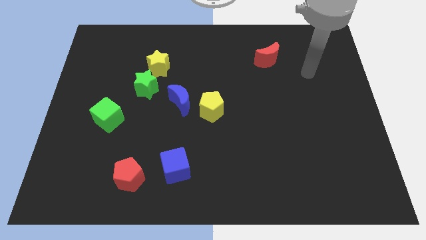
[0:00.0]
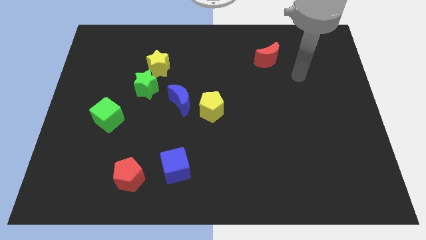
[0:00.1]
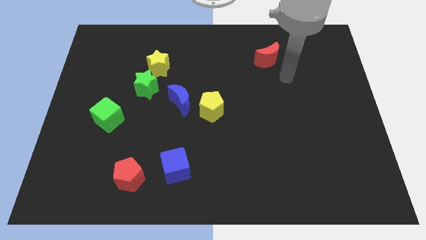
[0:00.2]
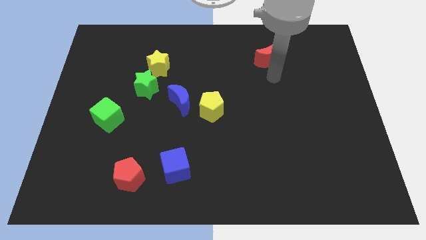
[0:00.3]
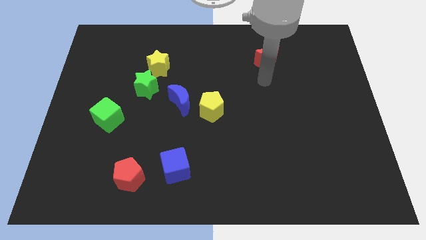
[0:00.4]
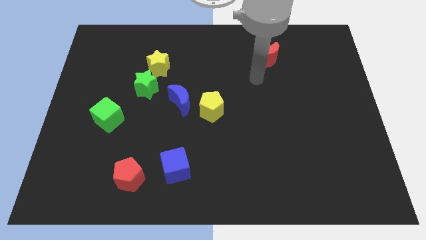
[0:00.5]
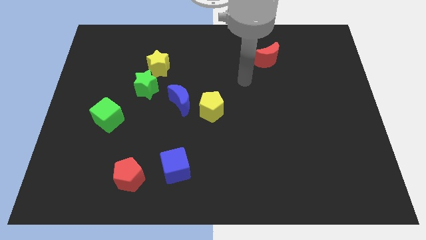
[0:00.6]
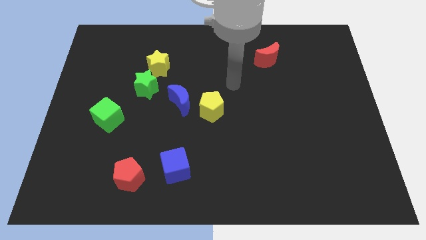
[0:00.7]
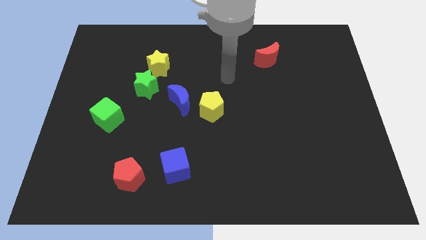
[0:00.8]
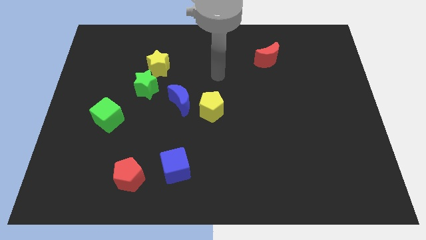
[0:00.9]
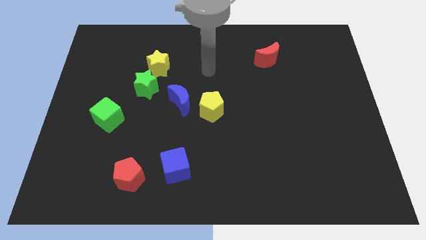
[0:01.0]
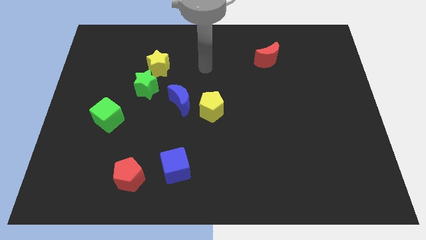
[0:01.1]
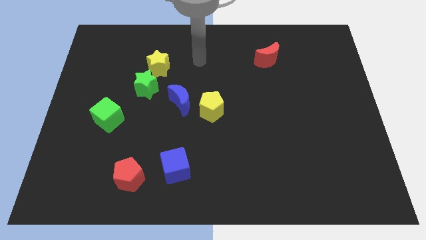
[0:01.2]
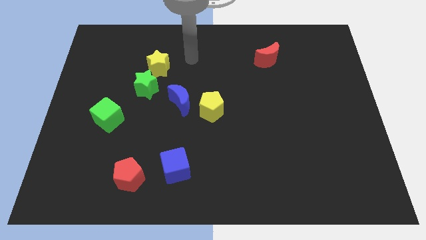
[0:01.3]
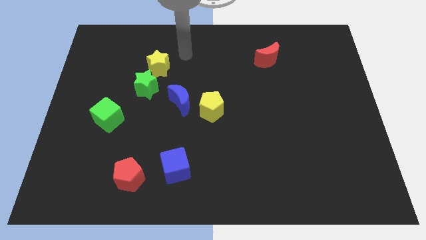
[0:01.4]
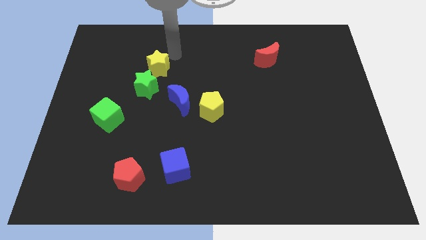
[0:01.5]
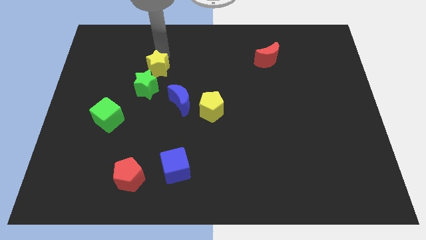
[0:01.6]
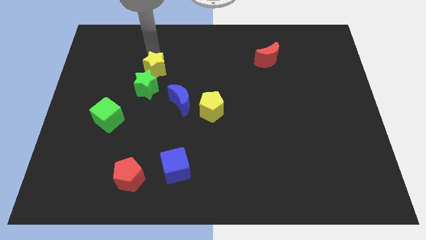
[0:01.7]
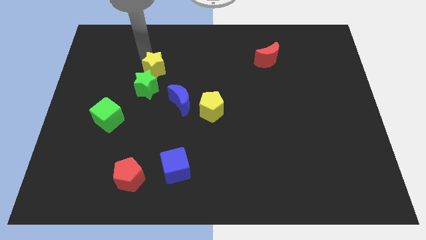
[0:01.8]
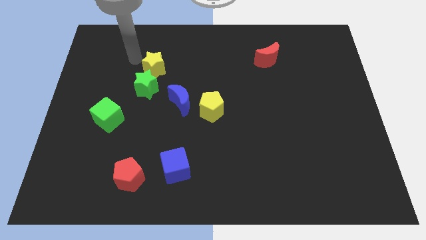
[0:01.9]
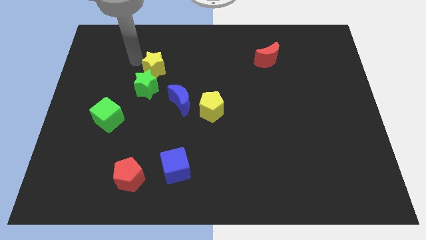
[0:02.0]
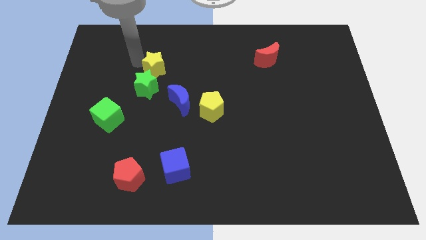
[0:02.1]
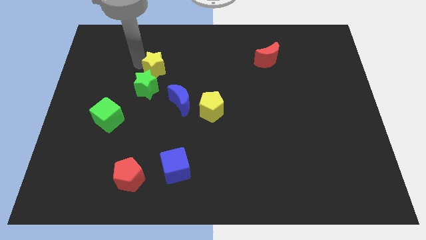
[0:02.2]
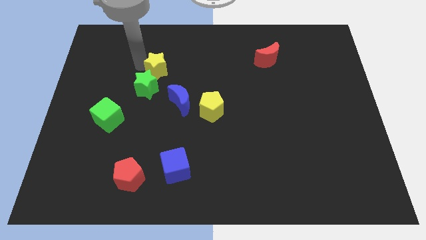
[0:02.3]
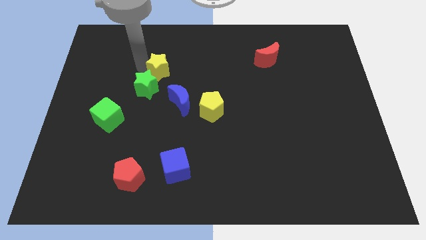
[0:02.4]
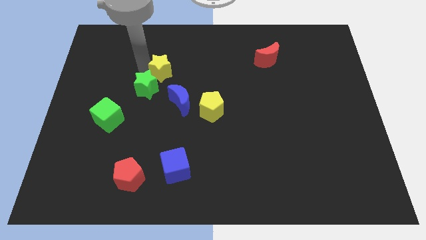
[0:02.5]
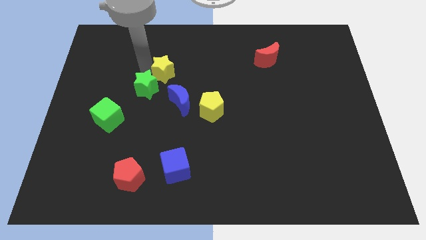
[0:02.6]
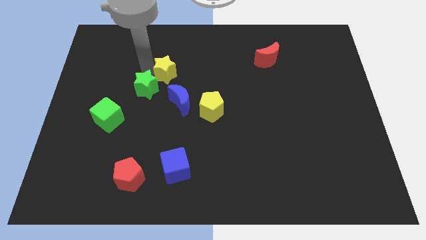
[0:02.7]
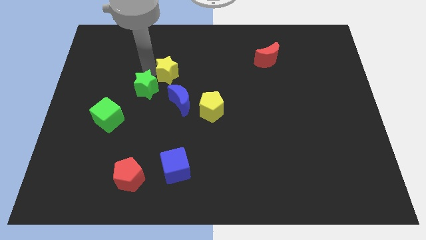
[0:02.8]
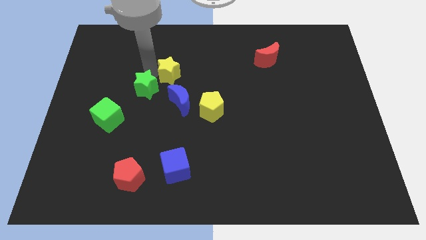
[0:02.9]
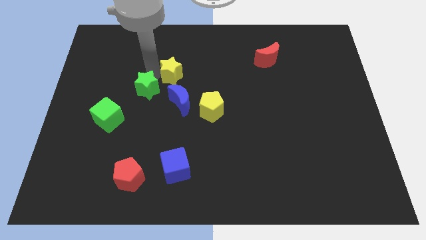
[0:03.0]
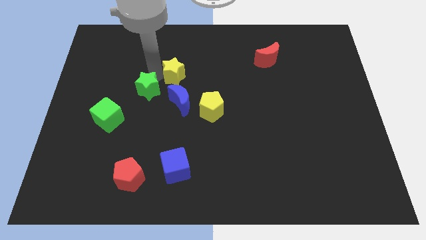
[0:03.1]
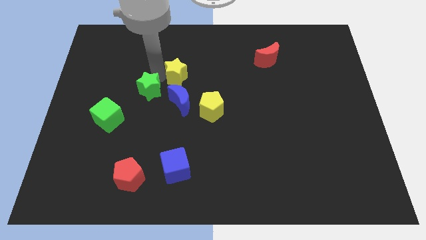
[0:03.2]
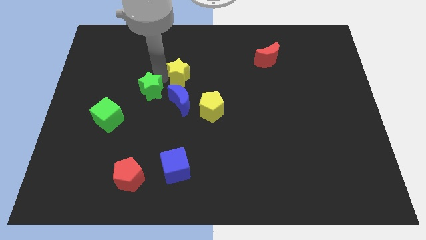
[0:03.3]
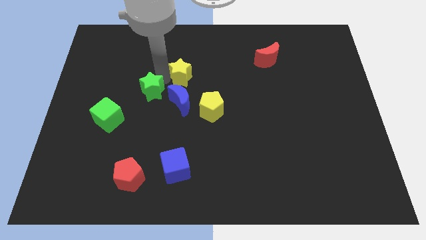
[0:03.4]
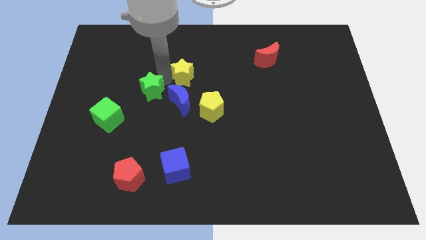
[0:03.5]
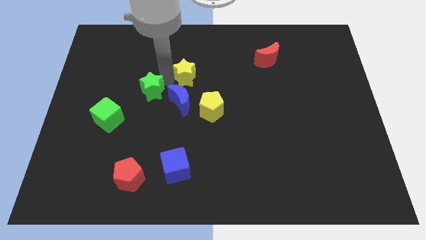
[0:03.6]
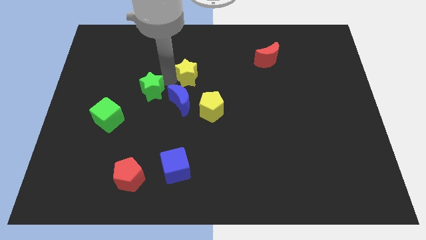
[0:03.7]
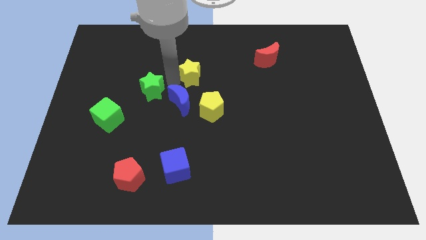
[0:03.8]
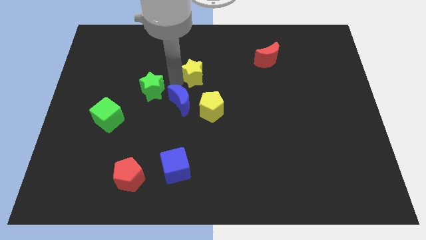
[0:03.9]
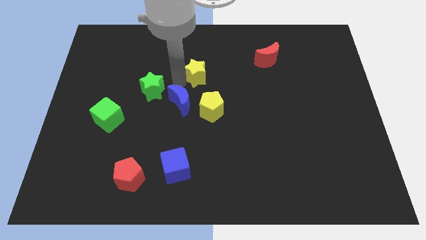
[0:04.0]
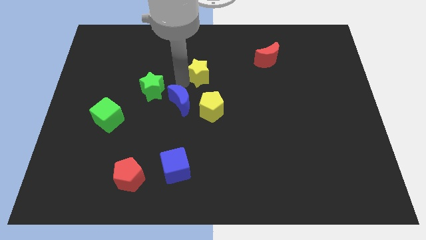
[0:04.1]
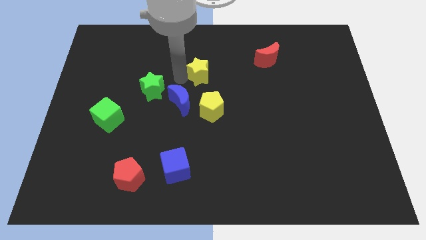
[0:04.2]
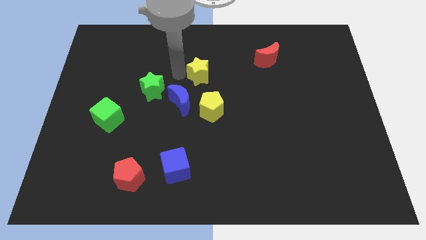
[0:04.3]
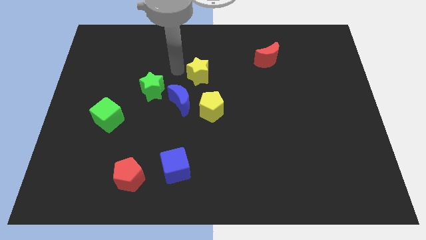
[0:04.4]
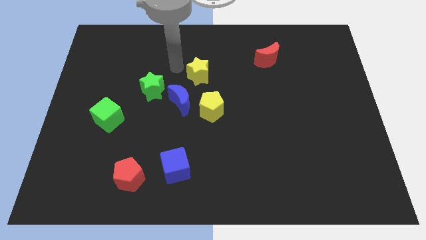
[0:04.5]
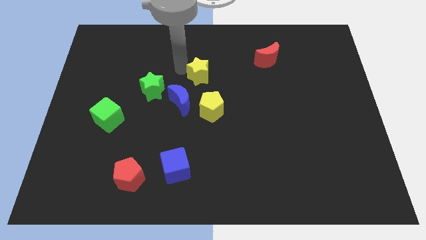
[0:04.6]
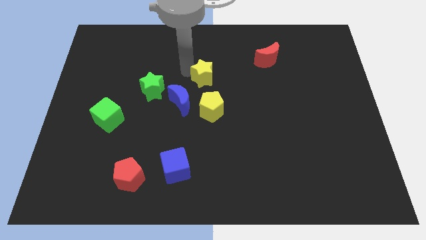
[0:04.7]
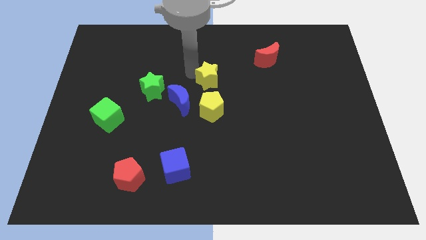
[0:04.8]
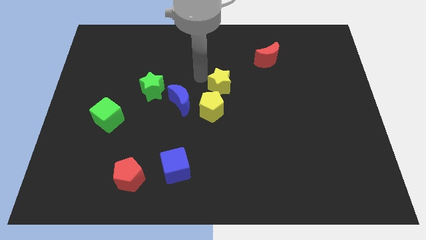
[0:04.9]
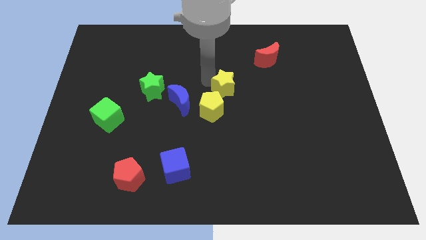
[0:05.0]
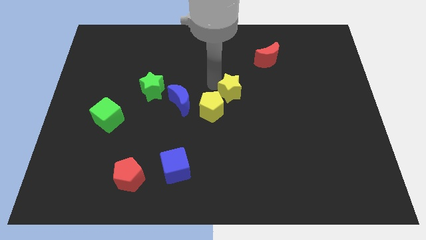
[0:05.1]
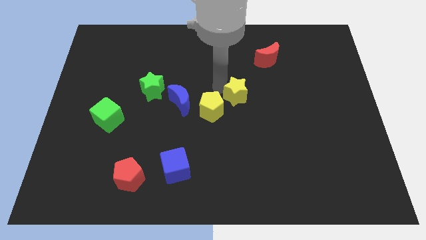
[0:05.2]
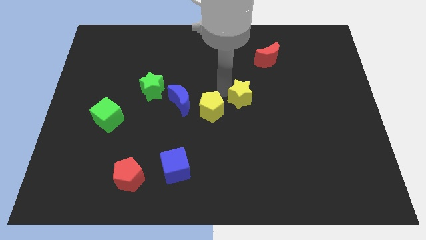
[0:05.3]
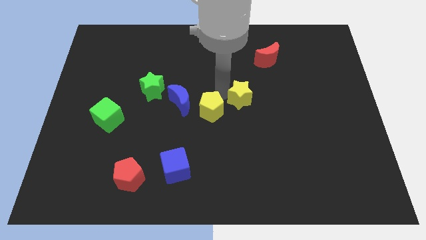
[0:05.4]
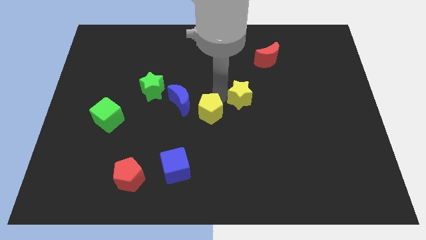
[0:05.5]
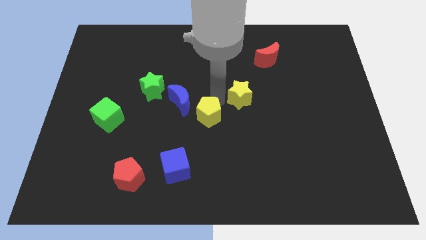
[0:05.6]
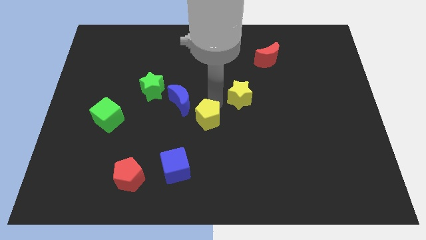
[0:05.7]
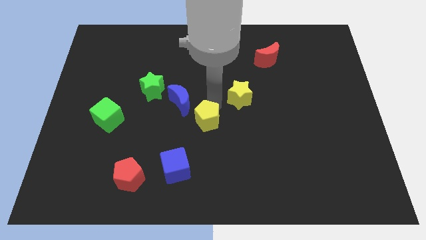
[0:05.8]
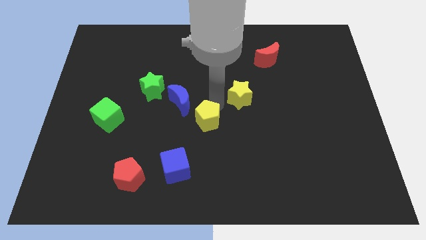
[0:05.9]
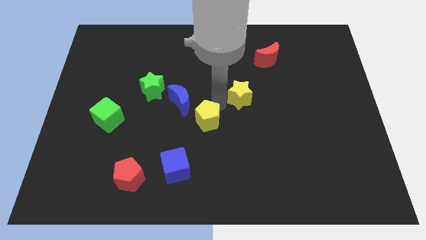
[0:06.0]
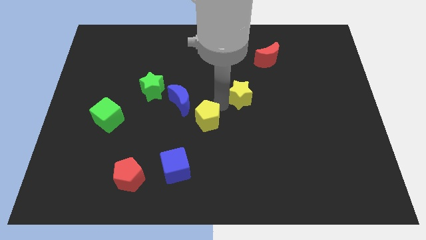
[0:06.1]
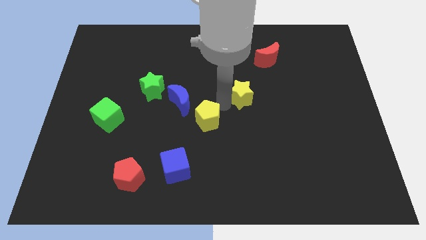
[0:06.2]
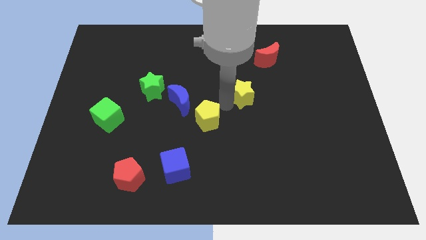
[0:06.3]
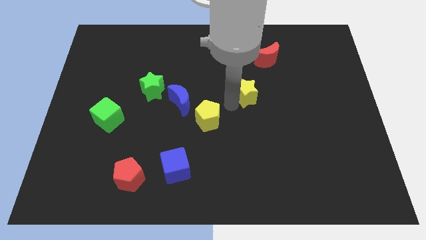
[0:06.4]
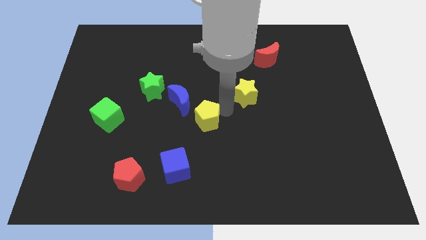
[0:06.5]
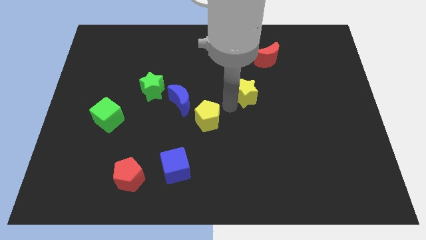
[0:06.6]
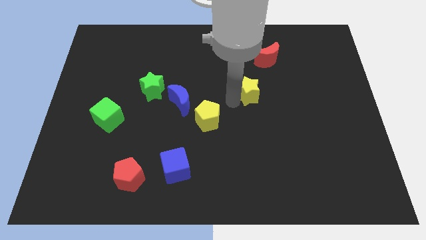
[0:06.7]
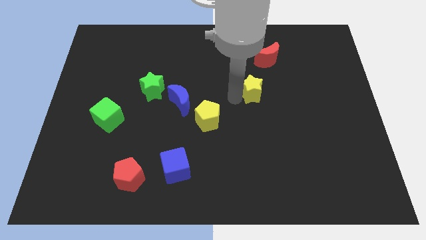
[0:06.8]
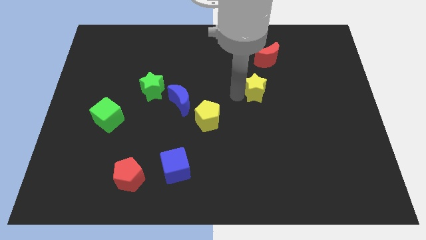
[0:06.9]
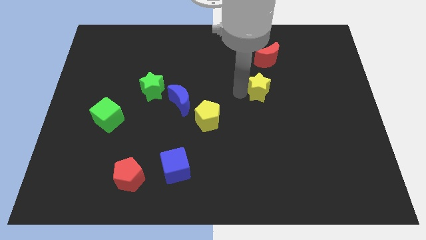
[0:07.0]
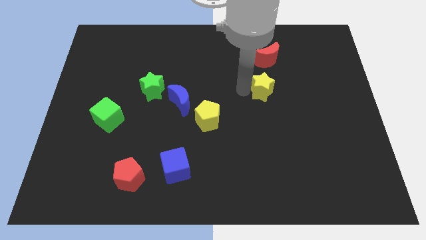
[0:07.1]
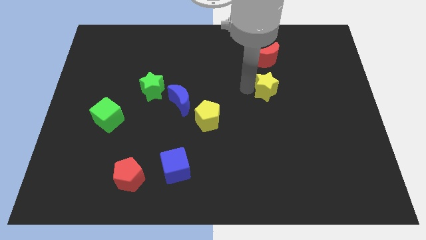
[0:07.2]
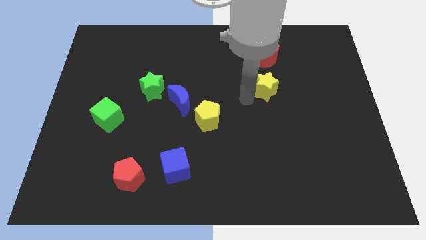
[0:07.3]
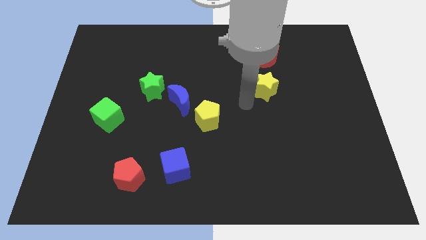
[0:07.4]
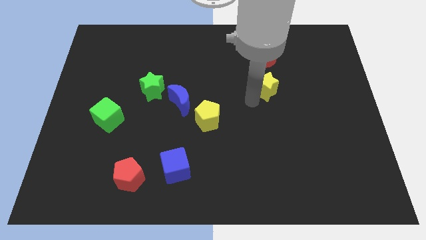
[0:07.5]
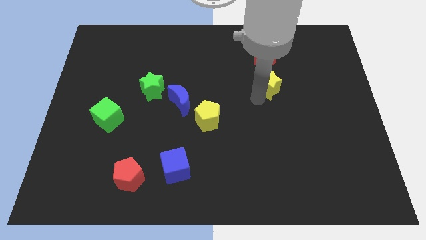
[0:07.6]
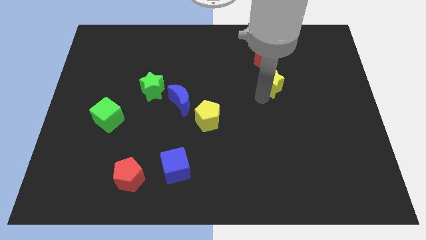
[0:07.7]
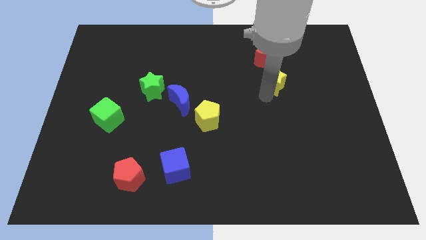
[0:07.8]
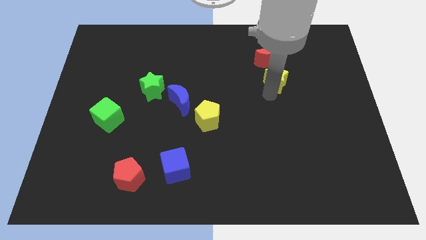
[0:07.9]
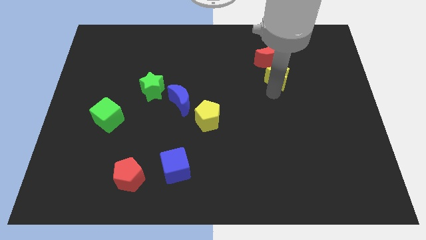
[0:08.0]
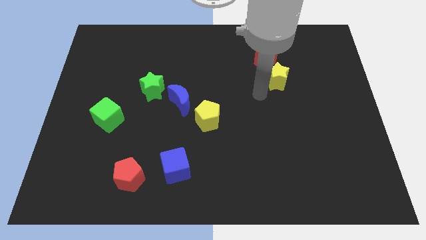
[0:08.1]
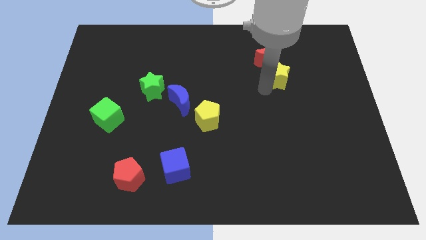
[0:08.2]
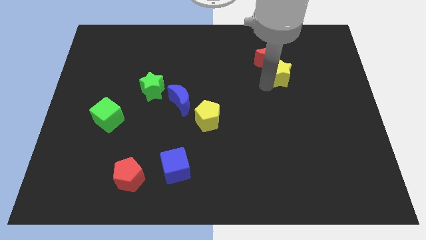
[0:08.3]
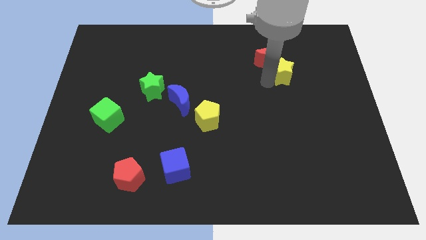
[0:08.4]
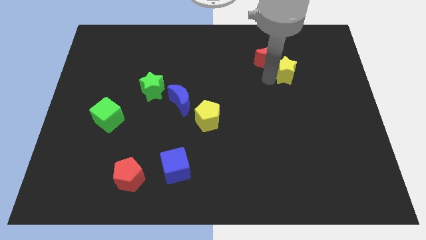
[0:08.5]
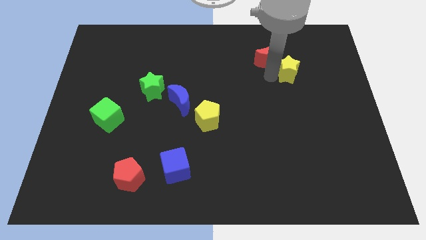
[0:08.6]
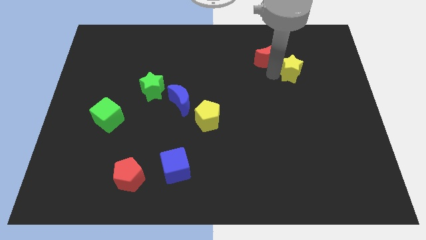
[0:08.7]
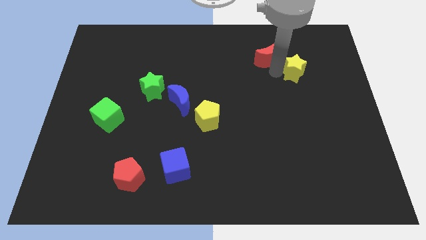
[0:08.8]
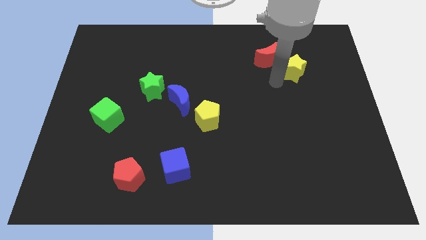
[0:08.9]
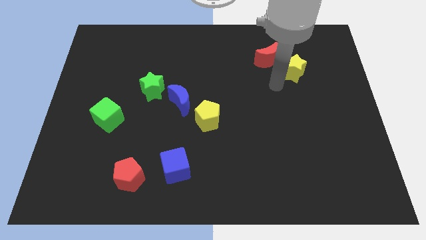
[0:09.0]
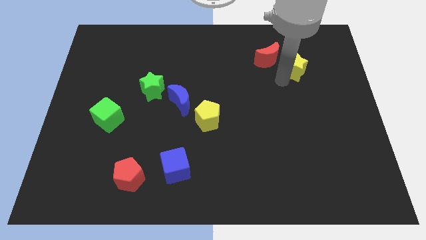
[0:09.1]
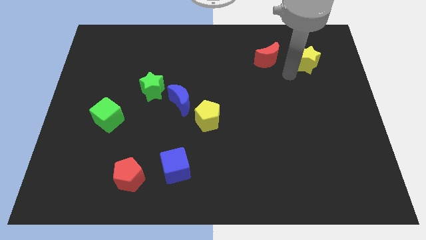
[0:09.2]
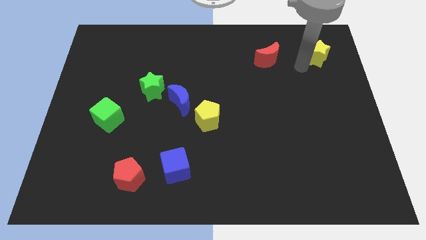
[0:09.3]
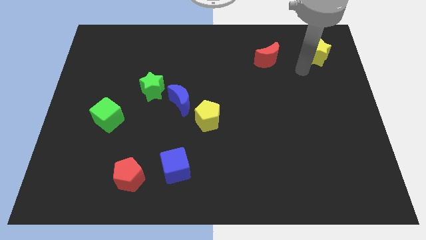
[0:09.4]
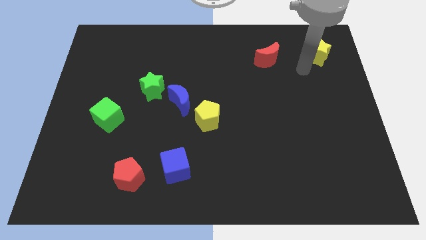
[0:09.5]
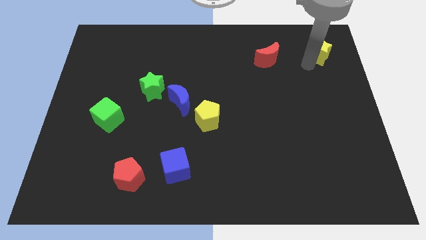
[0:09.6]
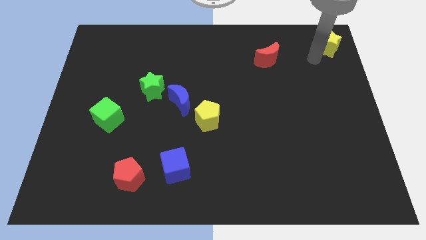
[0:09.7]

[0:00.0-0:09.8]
move the yellow star to the top right of the board
